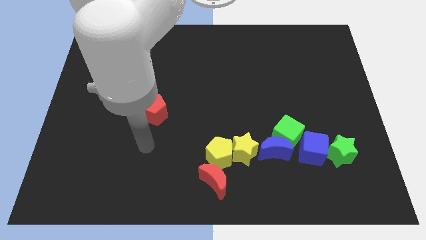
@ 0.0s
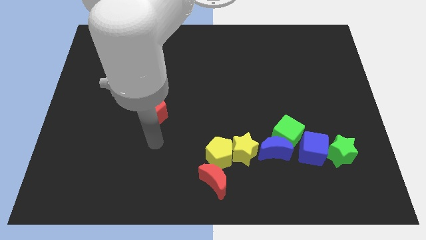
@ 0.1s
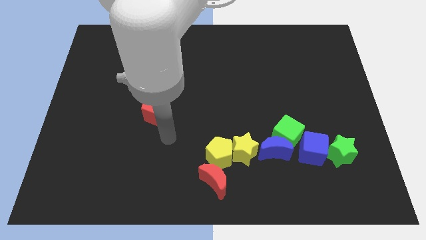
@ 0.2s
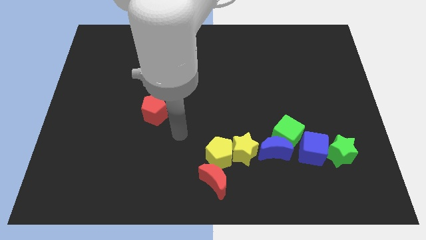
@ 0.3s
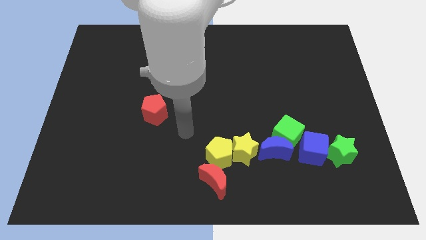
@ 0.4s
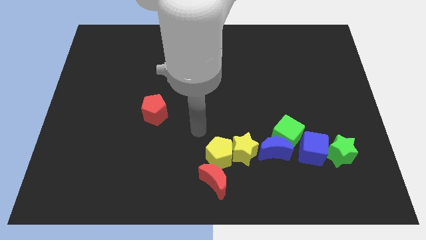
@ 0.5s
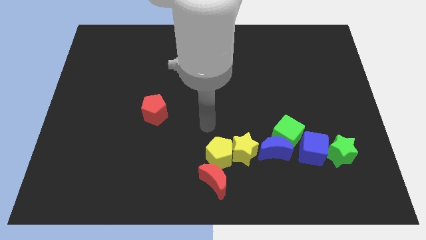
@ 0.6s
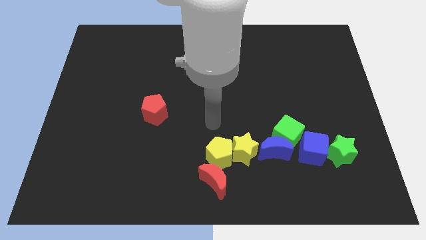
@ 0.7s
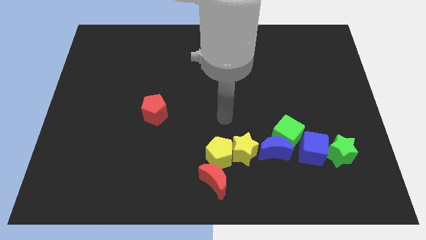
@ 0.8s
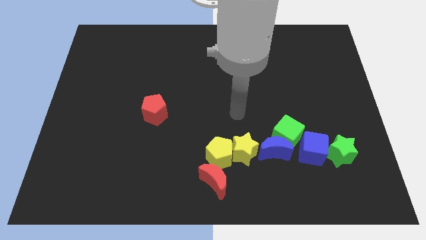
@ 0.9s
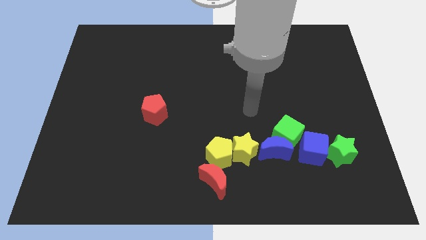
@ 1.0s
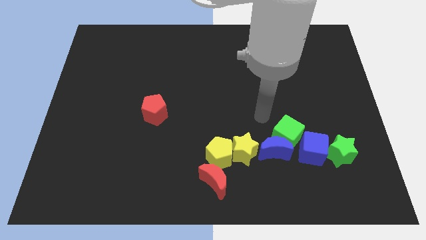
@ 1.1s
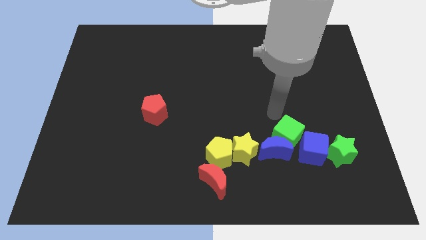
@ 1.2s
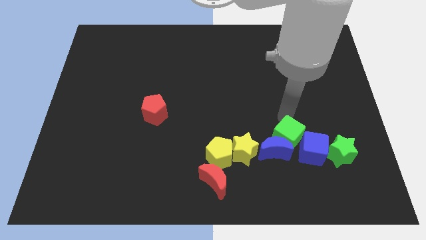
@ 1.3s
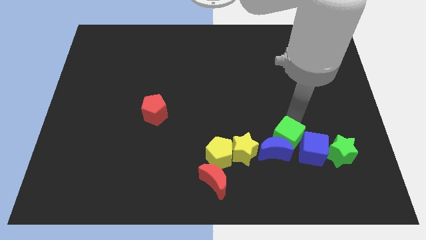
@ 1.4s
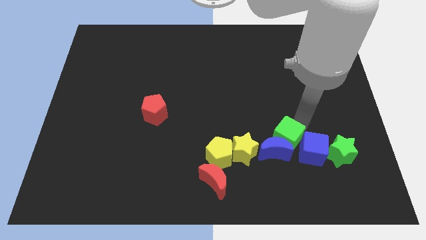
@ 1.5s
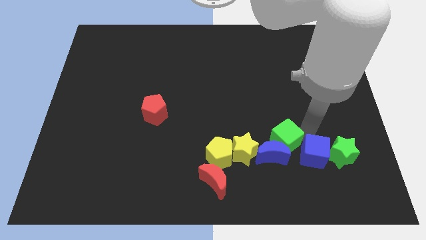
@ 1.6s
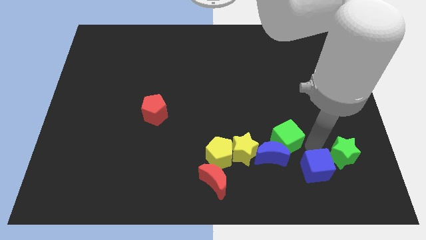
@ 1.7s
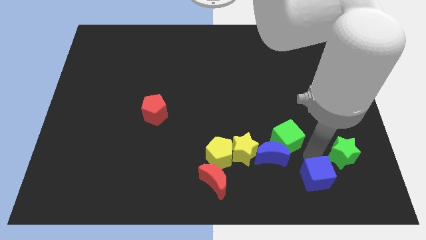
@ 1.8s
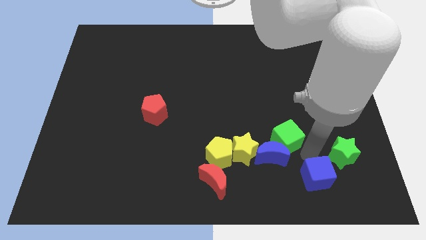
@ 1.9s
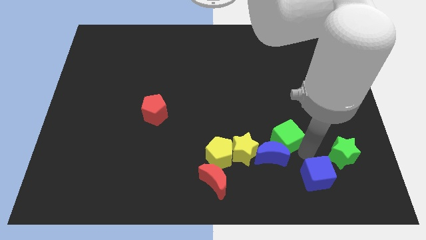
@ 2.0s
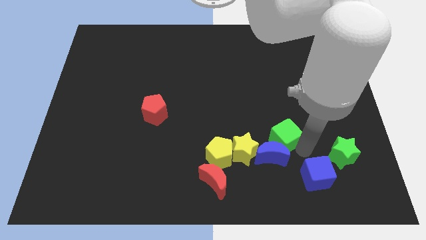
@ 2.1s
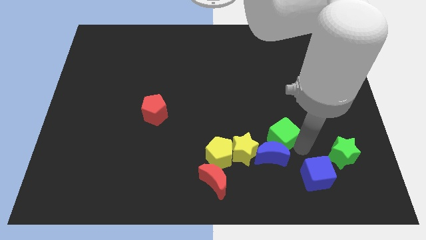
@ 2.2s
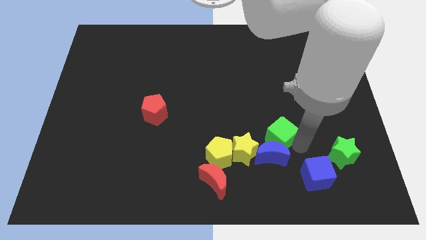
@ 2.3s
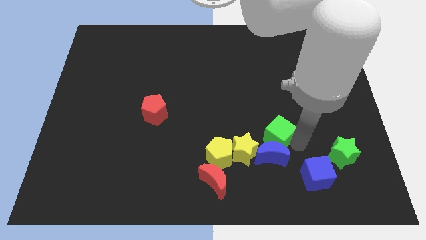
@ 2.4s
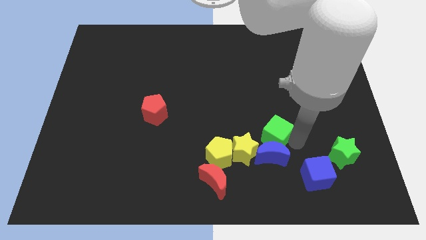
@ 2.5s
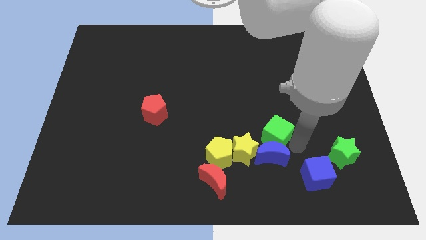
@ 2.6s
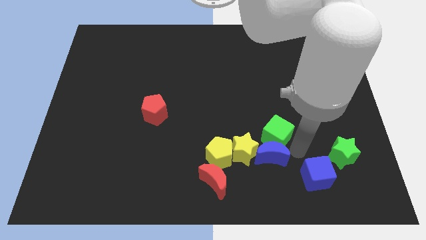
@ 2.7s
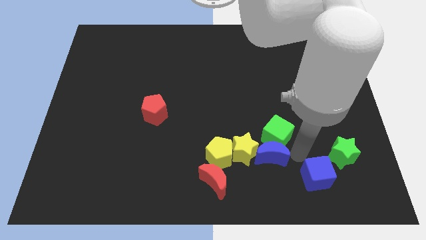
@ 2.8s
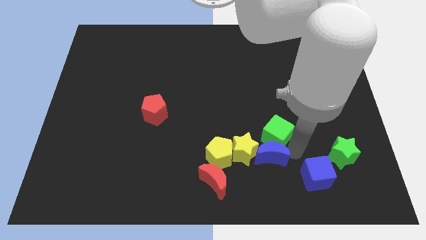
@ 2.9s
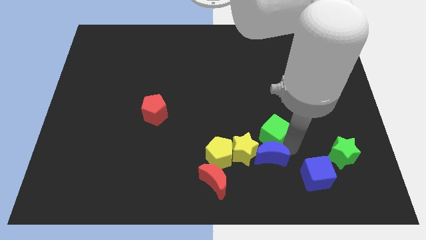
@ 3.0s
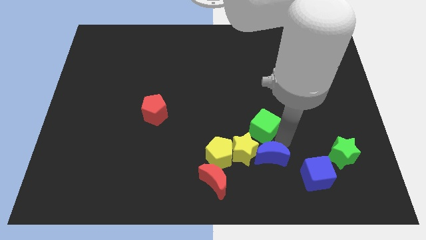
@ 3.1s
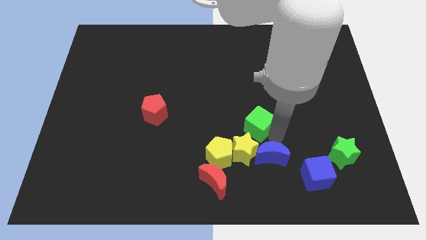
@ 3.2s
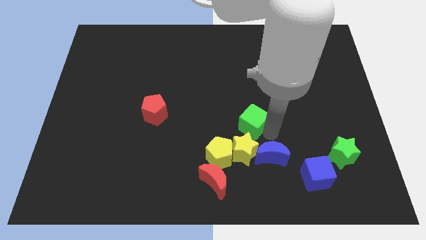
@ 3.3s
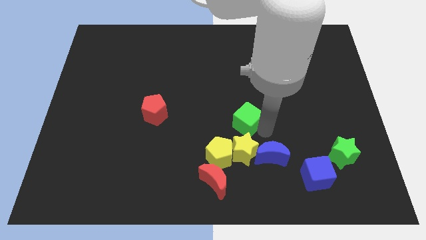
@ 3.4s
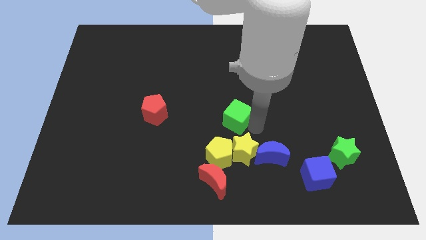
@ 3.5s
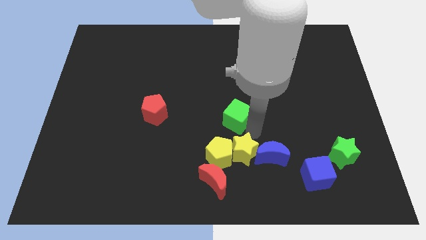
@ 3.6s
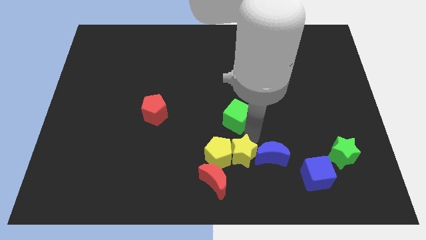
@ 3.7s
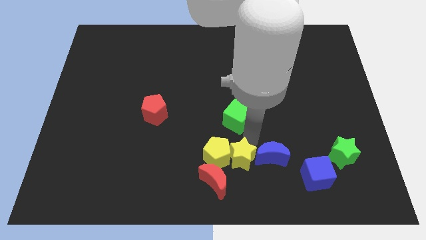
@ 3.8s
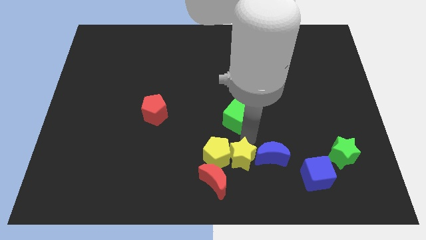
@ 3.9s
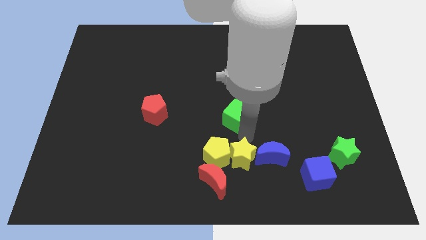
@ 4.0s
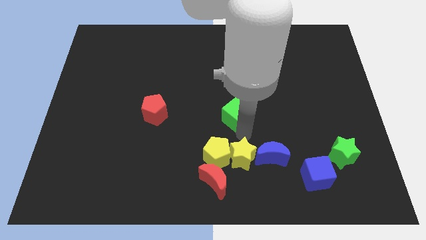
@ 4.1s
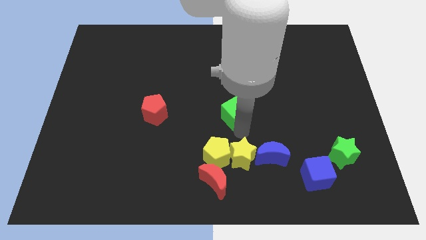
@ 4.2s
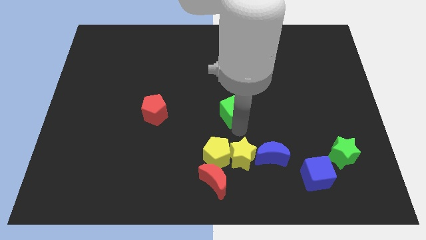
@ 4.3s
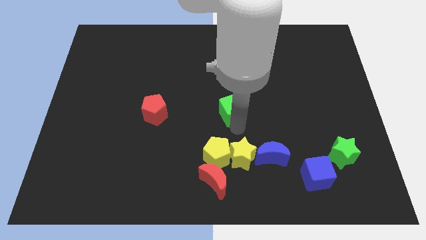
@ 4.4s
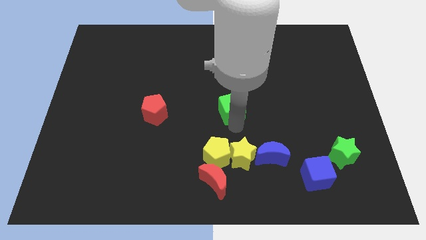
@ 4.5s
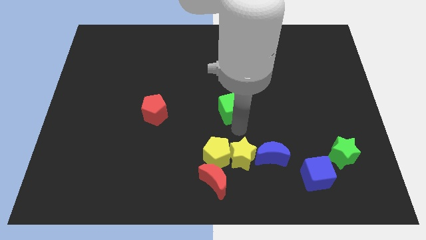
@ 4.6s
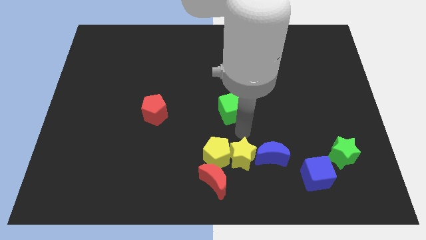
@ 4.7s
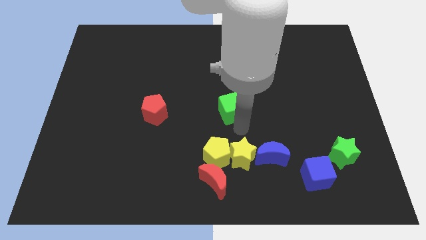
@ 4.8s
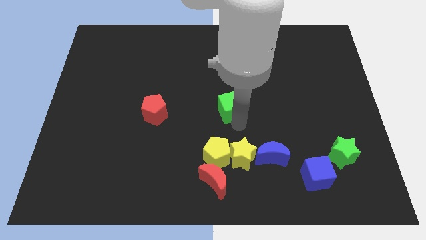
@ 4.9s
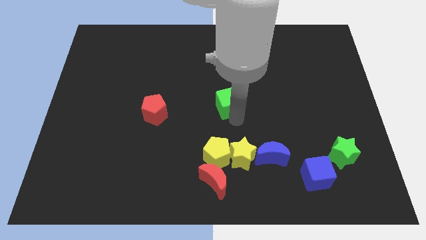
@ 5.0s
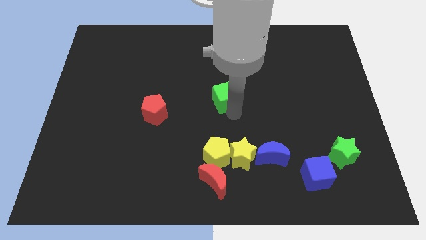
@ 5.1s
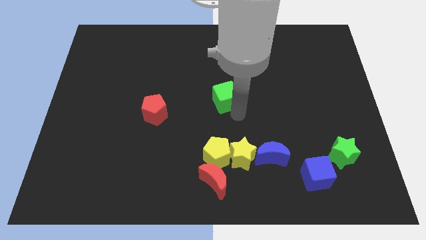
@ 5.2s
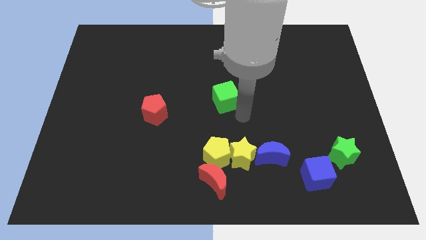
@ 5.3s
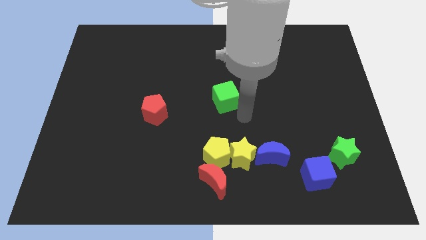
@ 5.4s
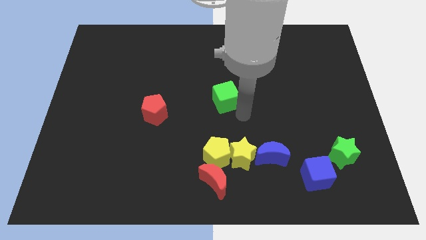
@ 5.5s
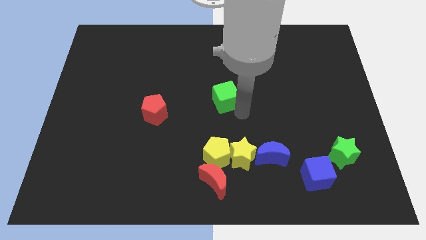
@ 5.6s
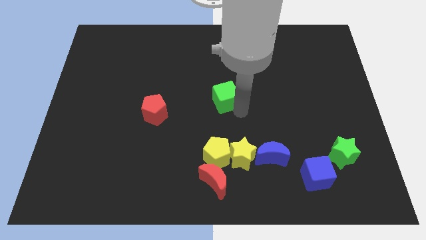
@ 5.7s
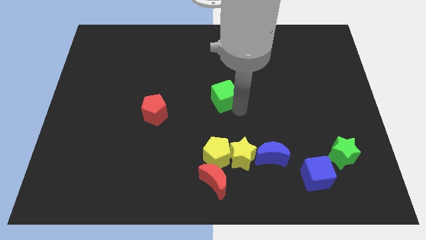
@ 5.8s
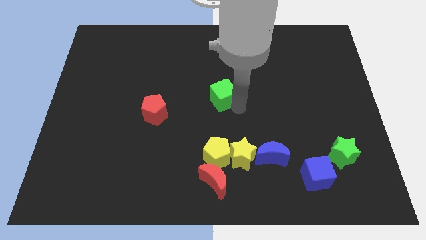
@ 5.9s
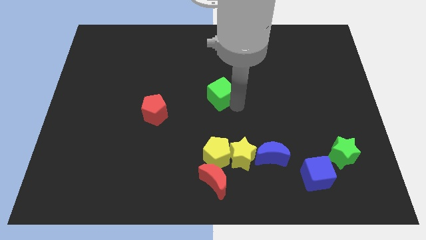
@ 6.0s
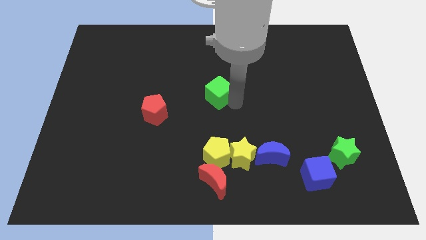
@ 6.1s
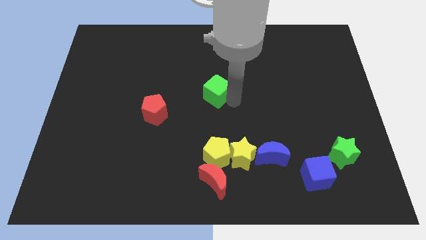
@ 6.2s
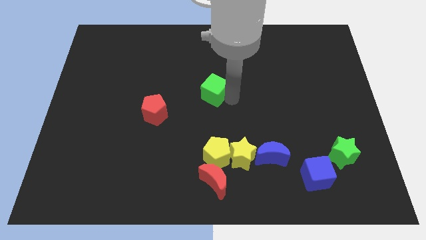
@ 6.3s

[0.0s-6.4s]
push the green cube up and left diagonally

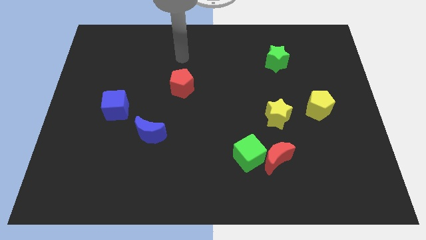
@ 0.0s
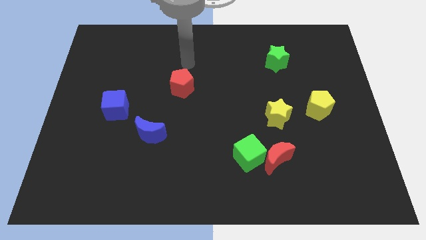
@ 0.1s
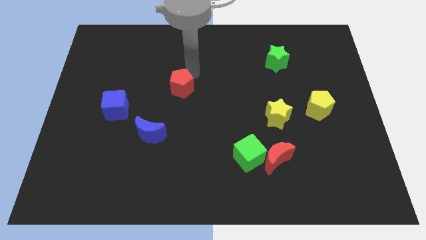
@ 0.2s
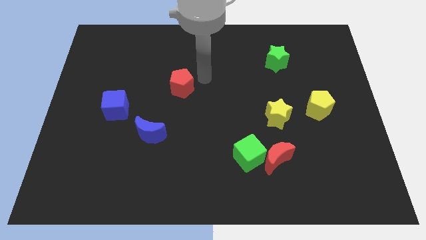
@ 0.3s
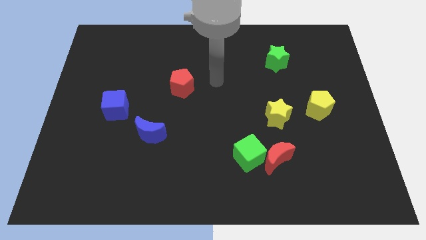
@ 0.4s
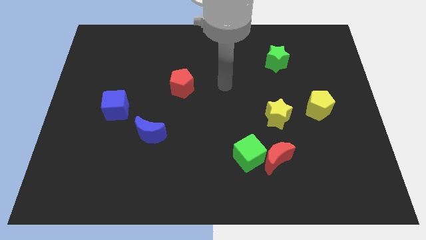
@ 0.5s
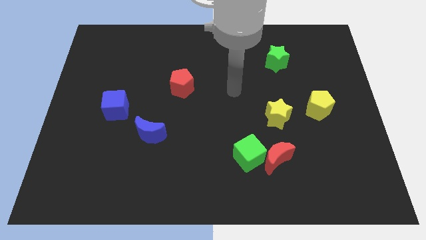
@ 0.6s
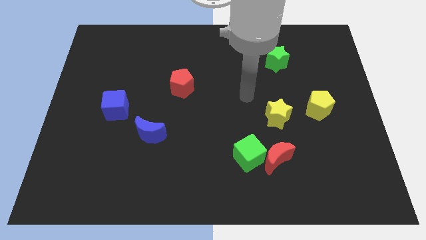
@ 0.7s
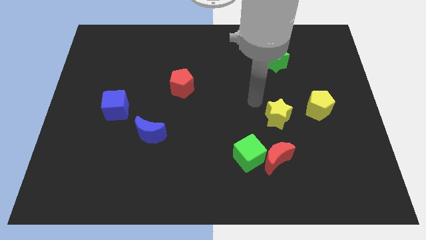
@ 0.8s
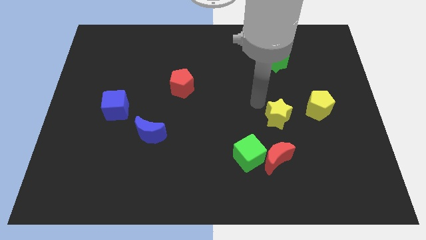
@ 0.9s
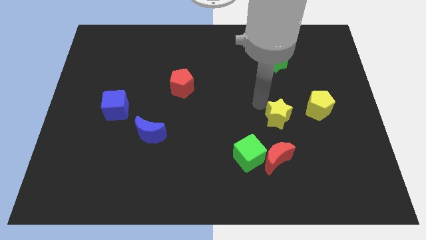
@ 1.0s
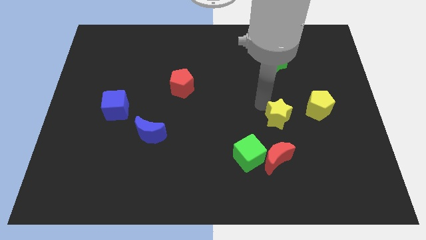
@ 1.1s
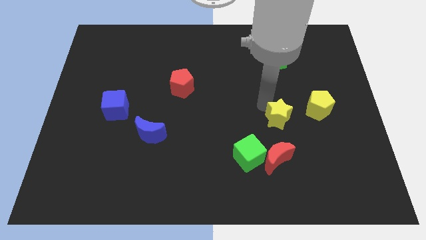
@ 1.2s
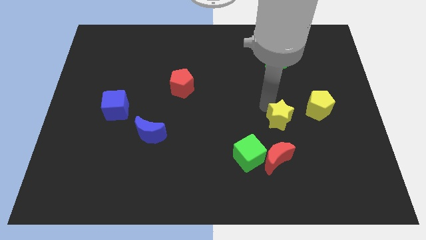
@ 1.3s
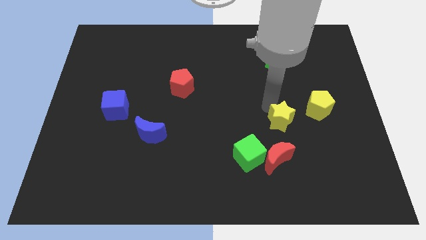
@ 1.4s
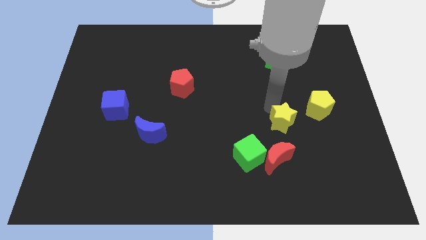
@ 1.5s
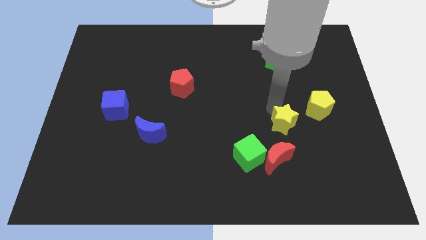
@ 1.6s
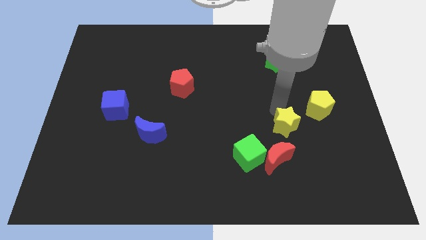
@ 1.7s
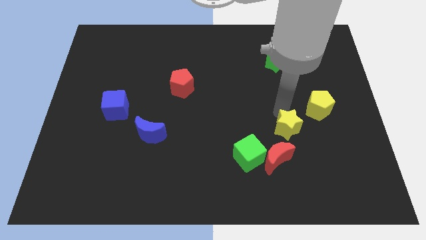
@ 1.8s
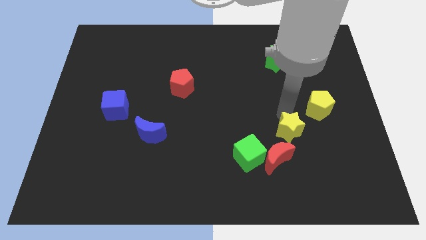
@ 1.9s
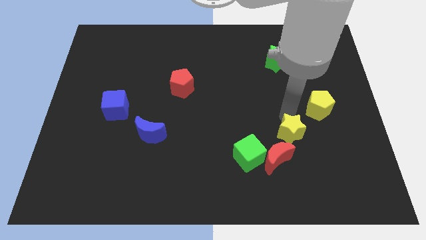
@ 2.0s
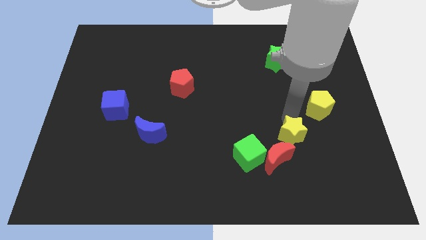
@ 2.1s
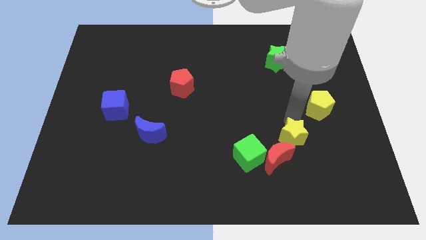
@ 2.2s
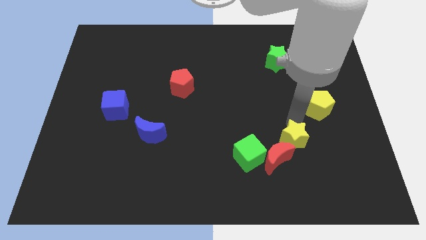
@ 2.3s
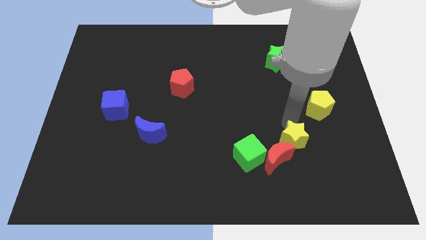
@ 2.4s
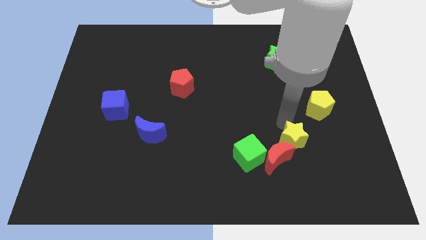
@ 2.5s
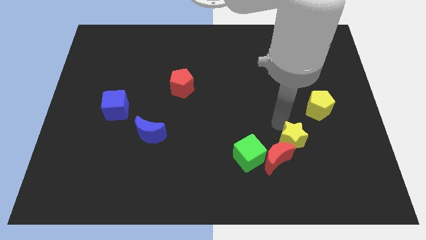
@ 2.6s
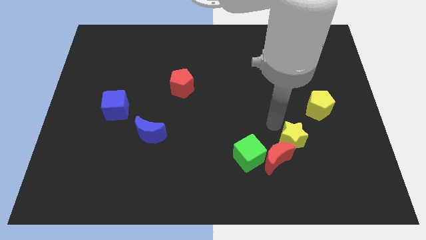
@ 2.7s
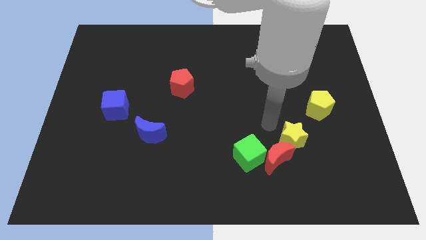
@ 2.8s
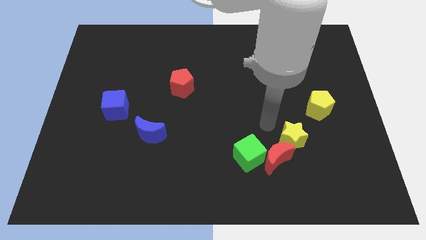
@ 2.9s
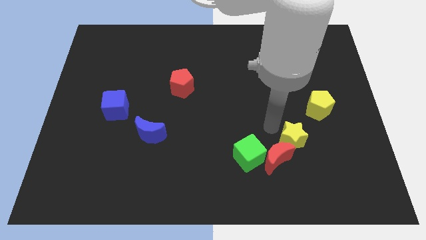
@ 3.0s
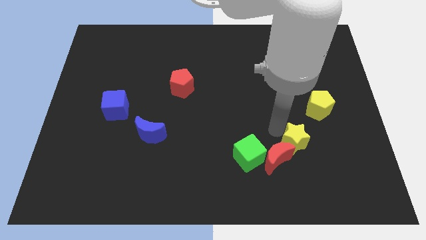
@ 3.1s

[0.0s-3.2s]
push the yellow star a bit diagonally downwards and right
